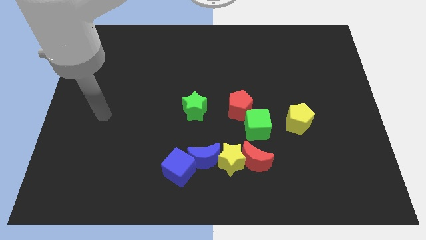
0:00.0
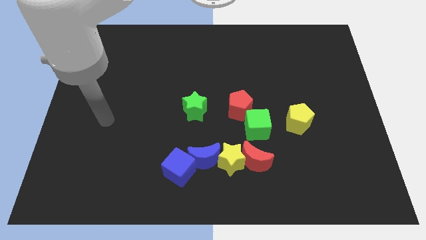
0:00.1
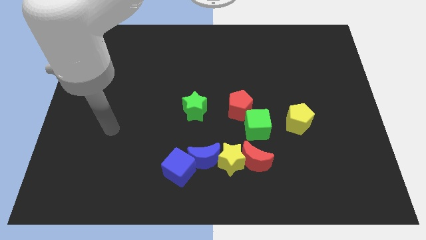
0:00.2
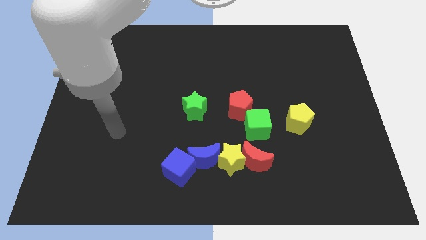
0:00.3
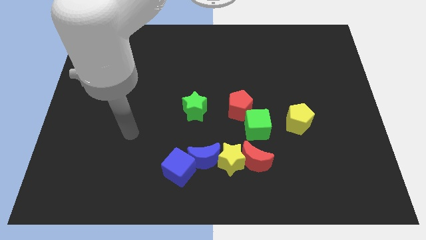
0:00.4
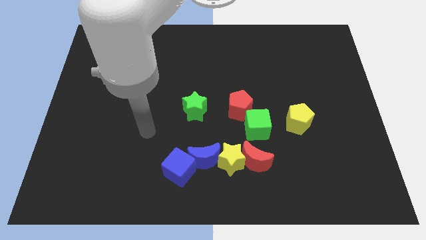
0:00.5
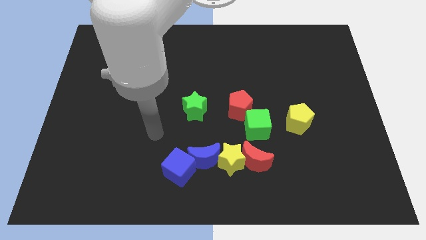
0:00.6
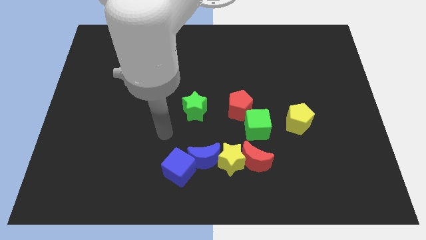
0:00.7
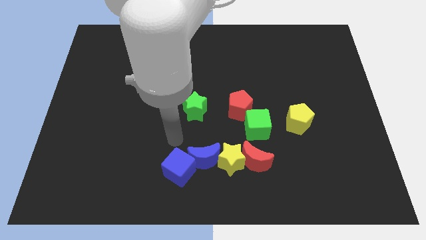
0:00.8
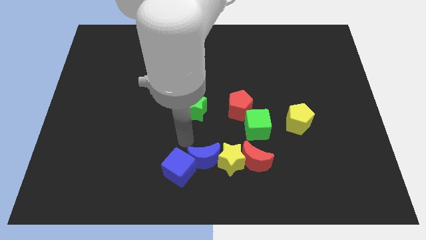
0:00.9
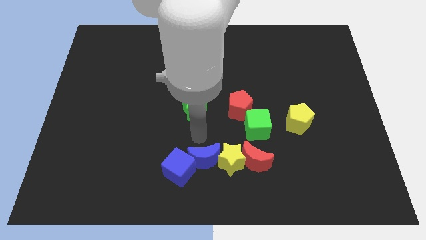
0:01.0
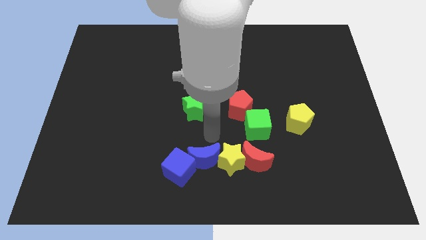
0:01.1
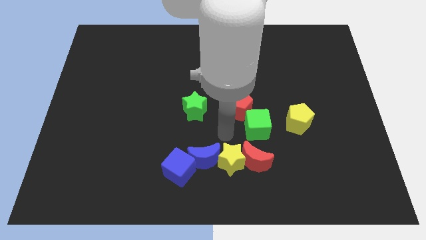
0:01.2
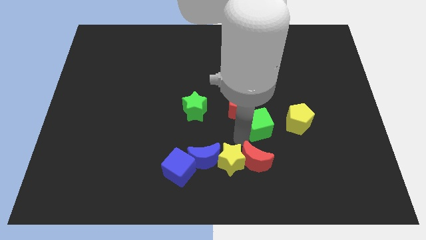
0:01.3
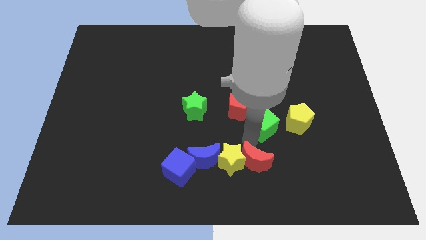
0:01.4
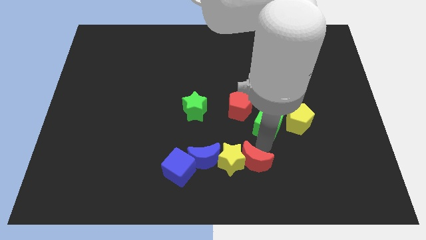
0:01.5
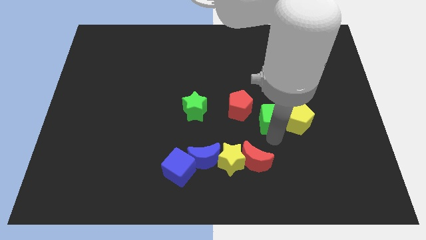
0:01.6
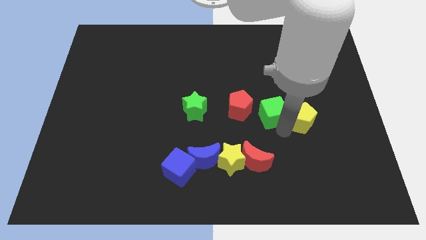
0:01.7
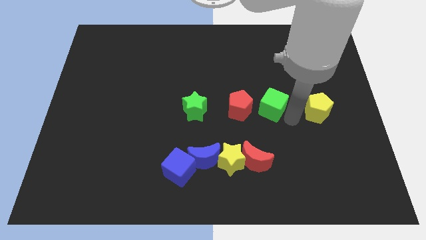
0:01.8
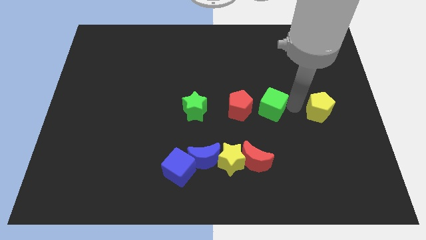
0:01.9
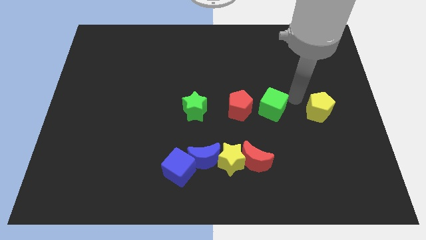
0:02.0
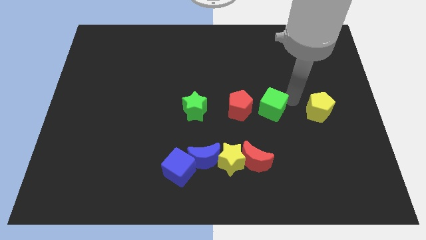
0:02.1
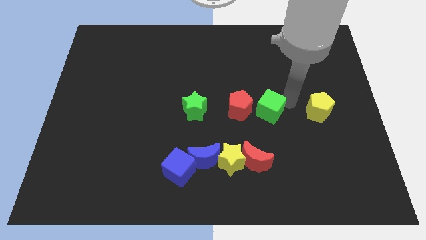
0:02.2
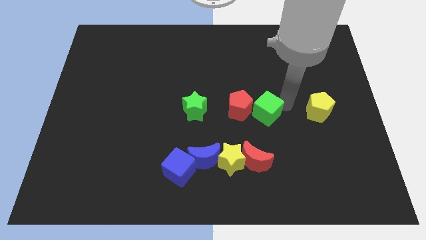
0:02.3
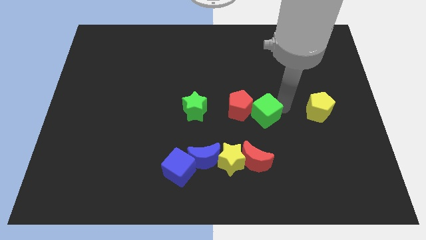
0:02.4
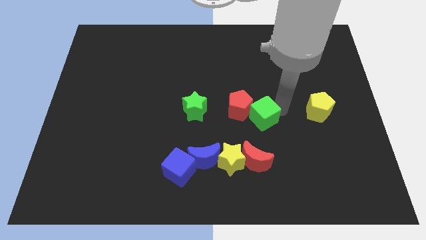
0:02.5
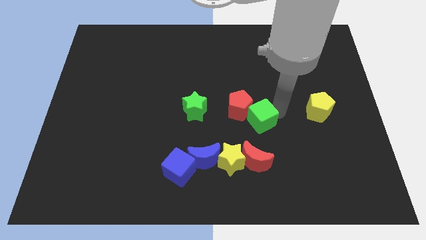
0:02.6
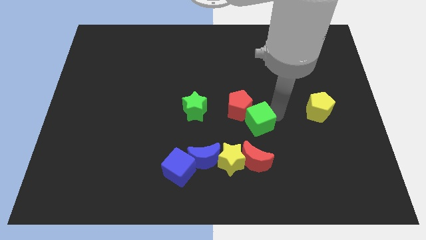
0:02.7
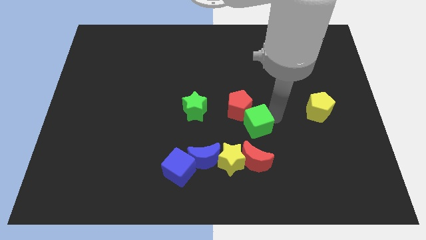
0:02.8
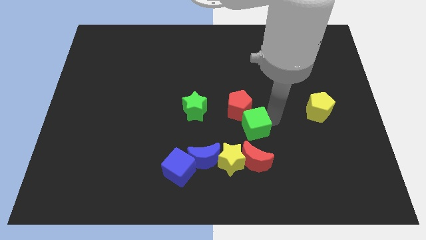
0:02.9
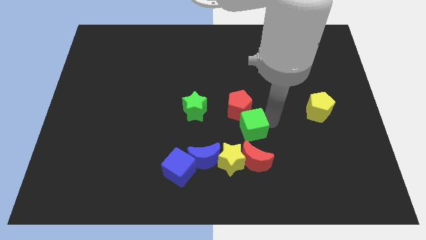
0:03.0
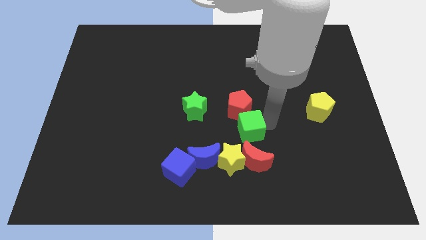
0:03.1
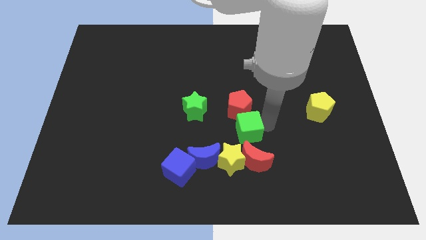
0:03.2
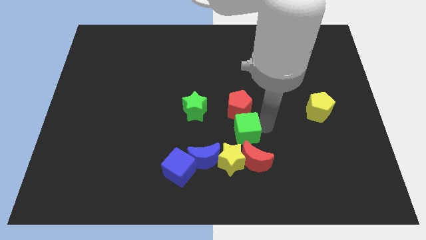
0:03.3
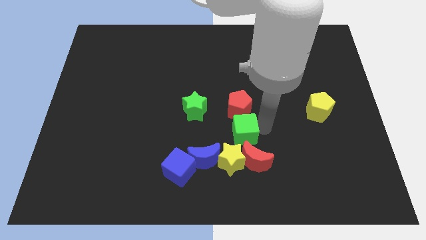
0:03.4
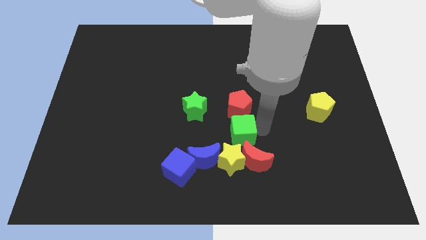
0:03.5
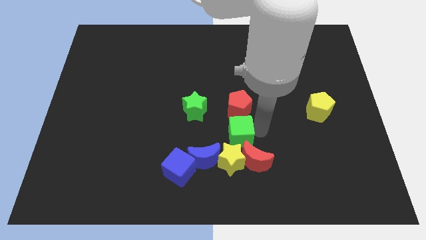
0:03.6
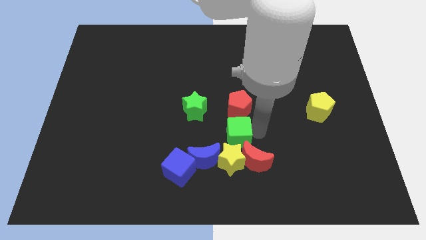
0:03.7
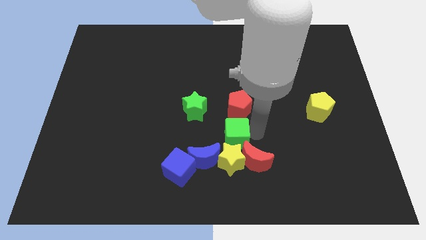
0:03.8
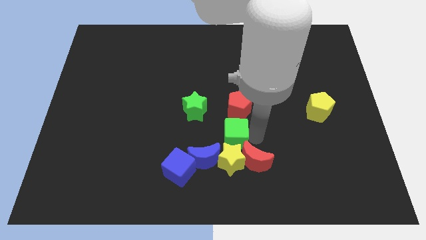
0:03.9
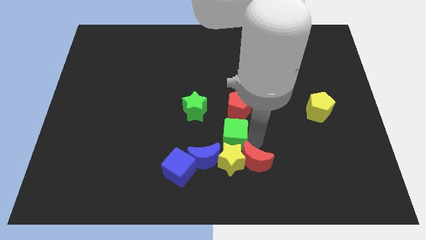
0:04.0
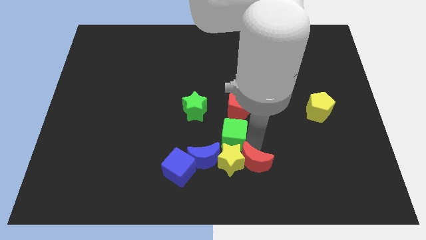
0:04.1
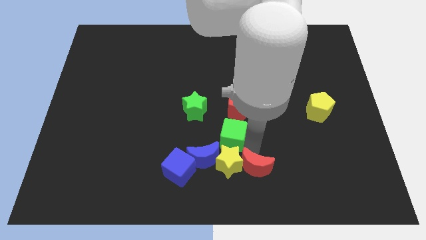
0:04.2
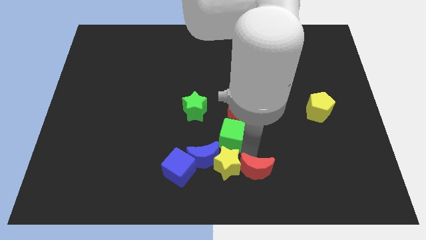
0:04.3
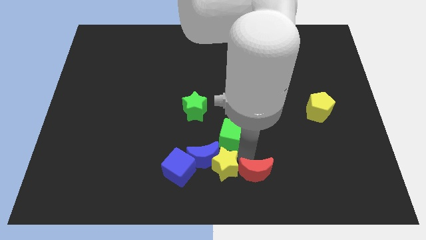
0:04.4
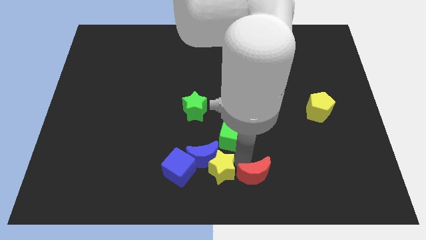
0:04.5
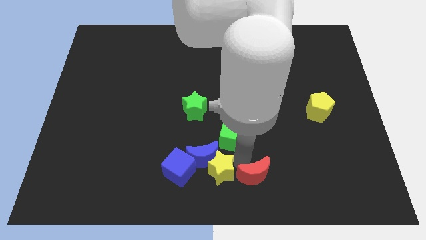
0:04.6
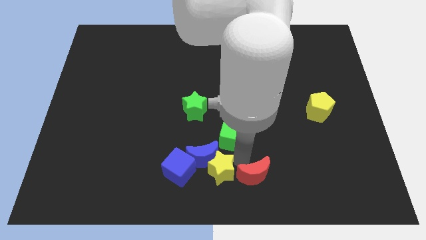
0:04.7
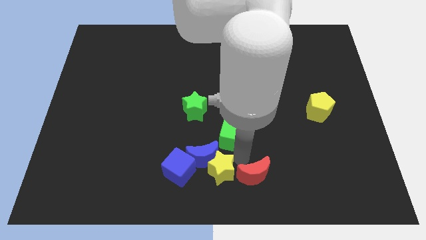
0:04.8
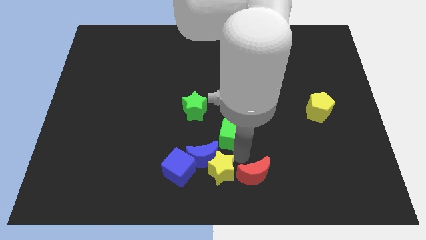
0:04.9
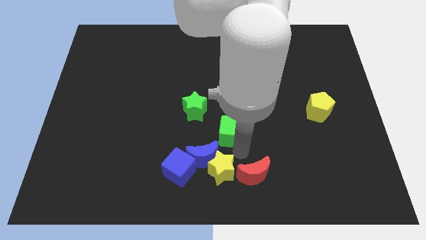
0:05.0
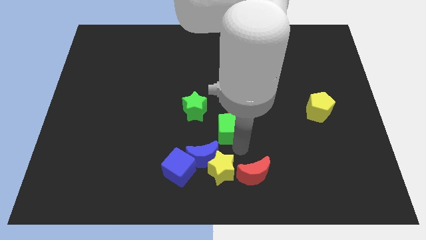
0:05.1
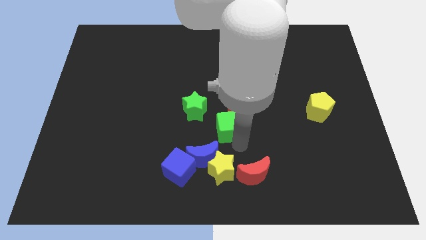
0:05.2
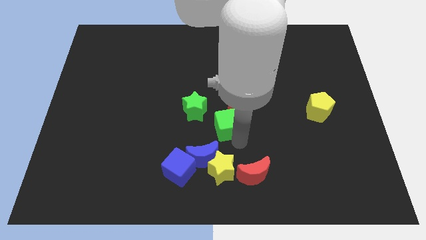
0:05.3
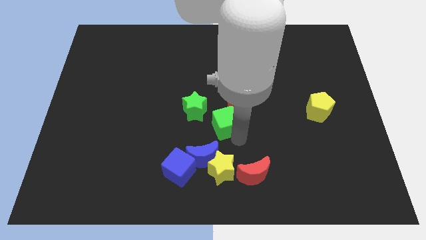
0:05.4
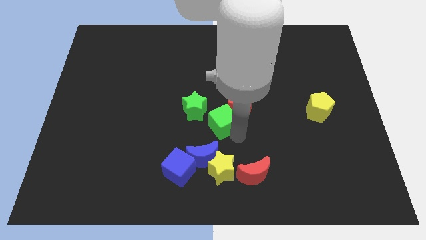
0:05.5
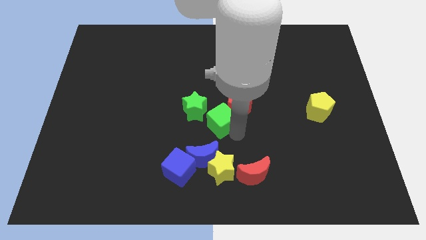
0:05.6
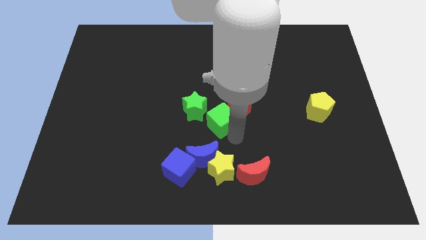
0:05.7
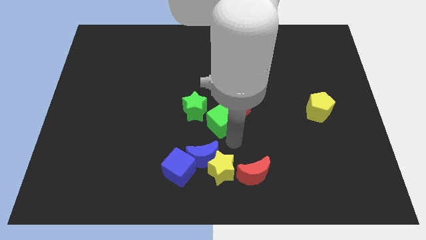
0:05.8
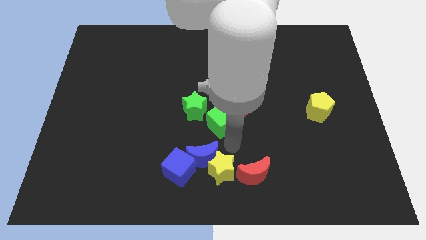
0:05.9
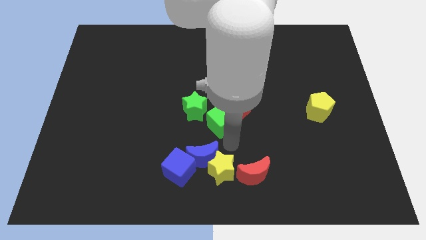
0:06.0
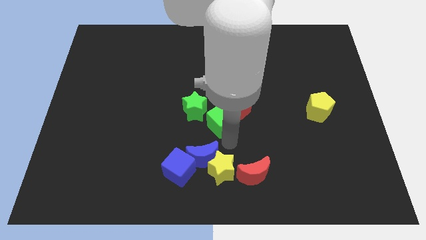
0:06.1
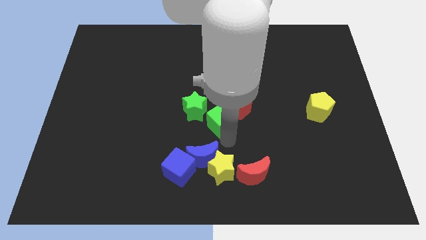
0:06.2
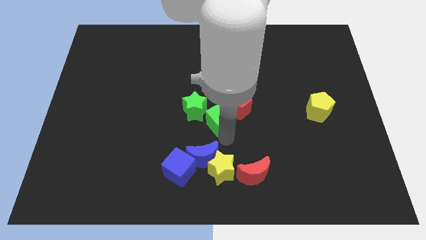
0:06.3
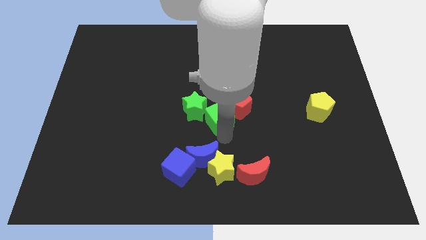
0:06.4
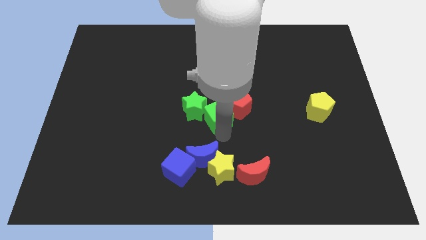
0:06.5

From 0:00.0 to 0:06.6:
move the green cube a bit diagonally up and to the left

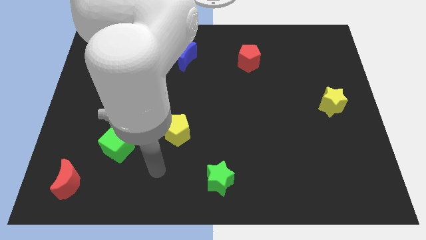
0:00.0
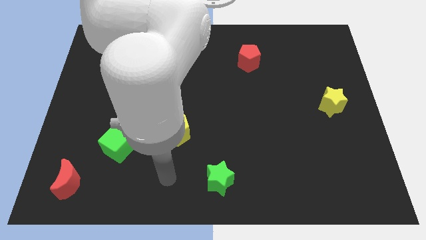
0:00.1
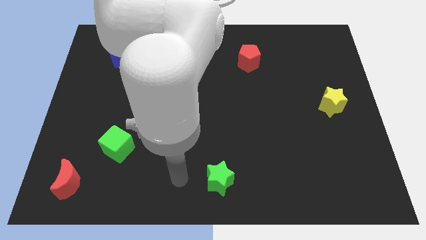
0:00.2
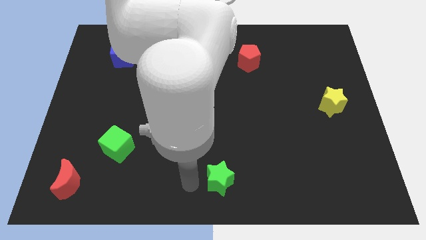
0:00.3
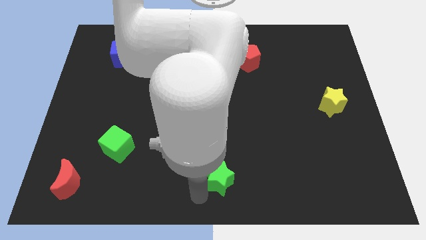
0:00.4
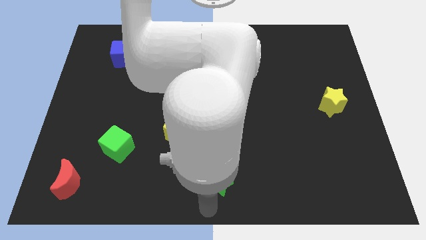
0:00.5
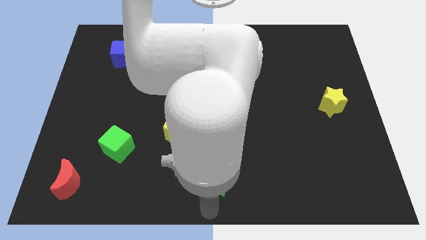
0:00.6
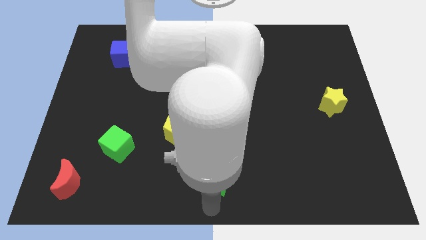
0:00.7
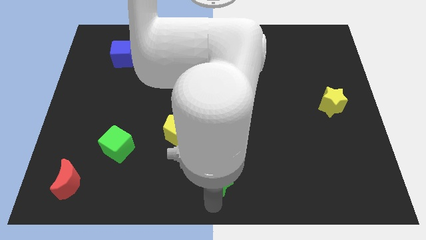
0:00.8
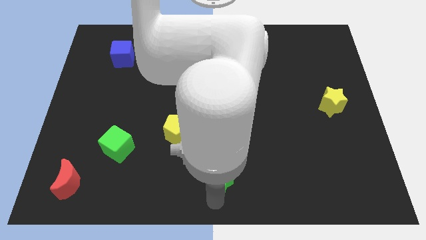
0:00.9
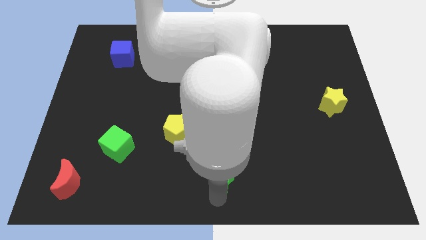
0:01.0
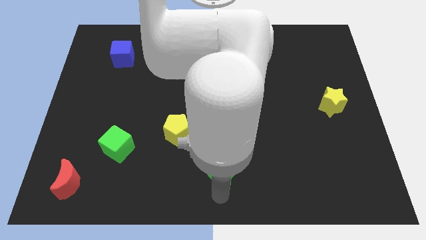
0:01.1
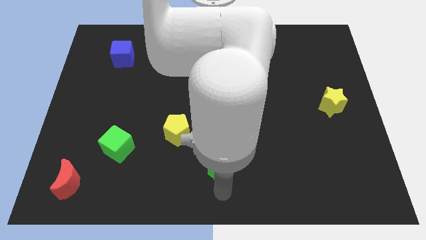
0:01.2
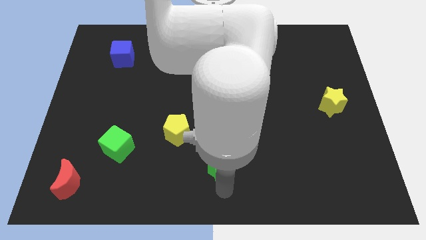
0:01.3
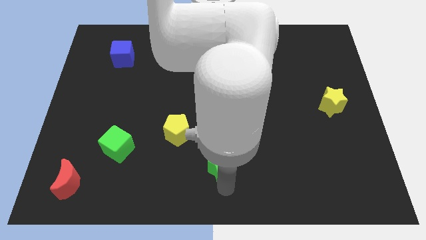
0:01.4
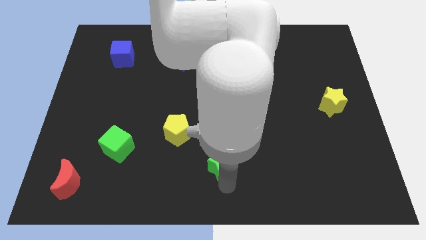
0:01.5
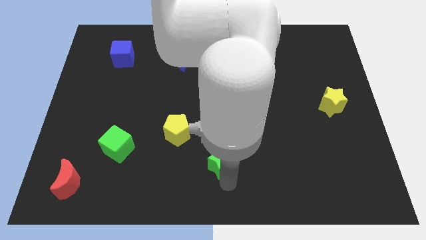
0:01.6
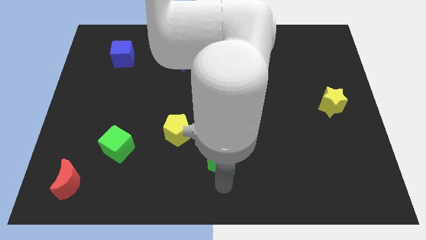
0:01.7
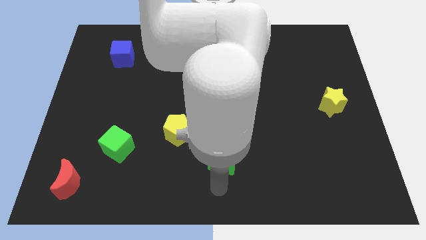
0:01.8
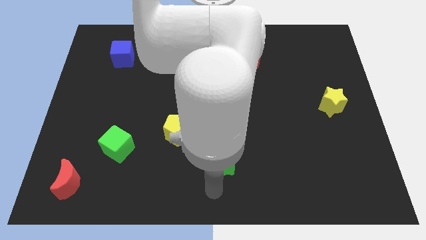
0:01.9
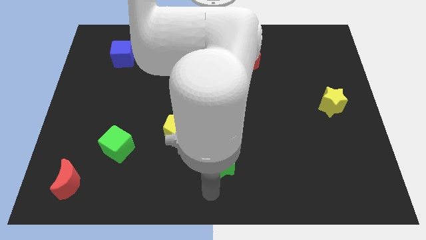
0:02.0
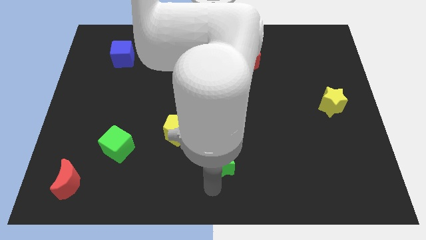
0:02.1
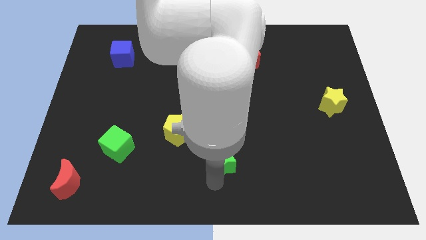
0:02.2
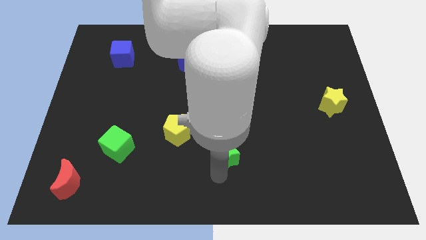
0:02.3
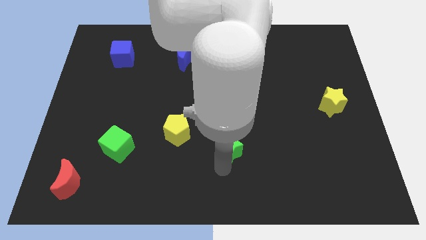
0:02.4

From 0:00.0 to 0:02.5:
slightly push the green star up
